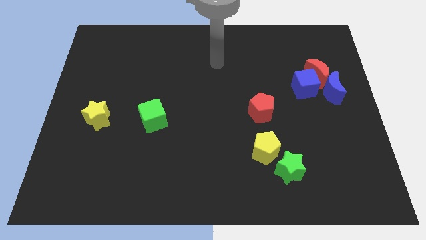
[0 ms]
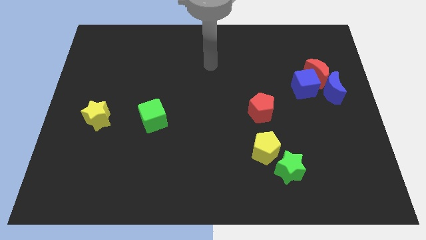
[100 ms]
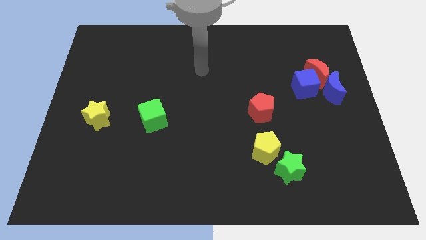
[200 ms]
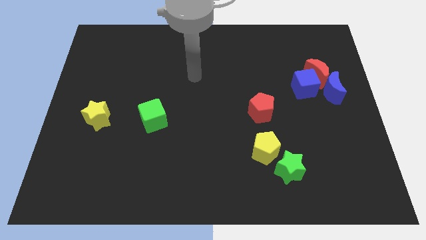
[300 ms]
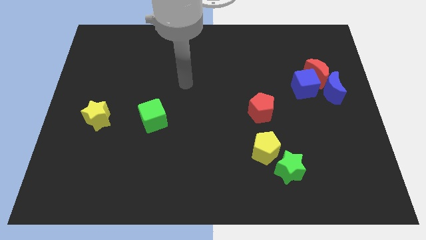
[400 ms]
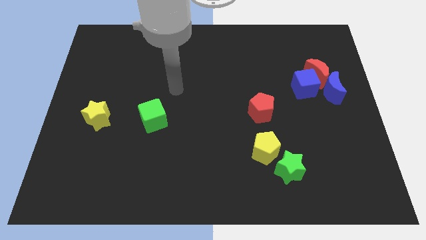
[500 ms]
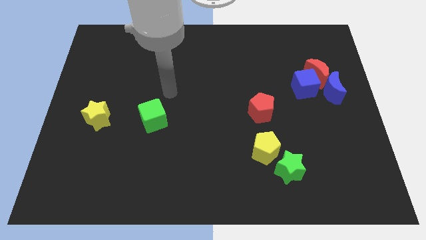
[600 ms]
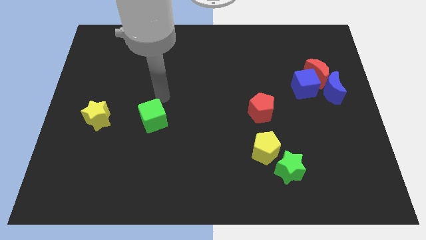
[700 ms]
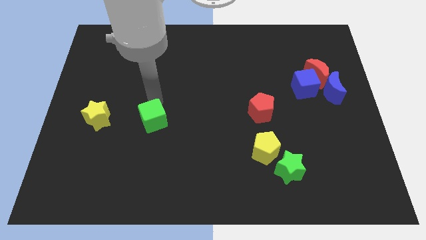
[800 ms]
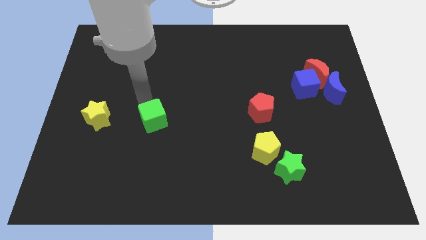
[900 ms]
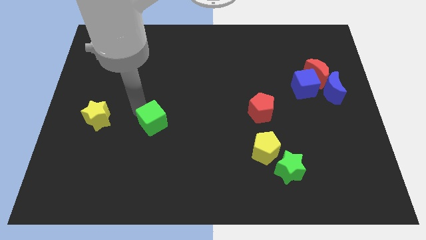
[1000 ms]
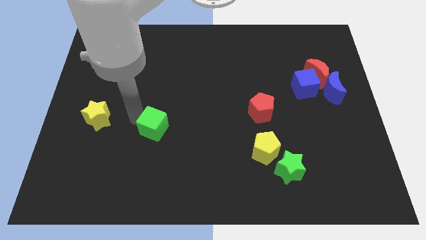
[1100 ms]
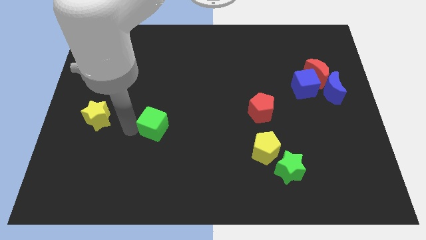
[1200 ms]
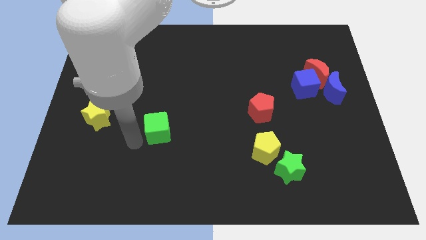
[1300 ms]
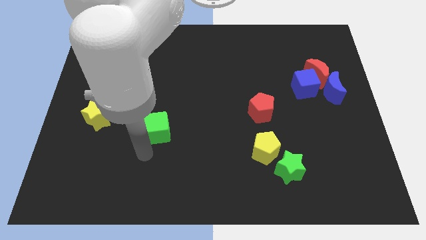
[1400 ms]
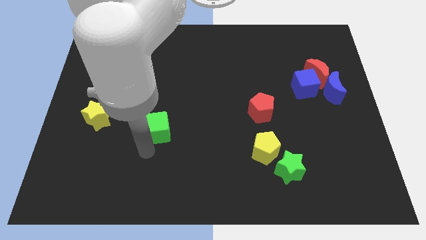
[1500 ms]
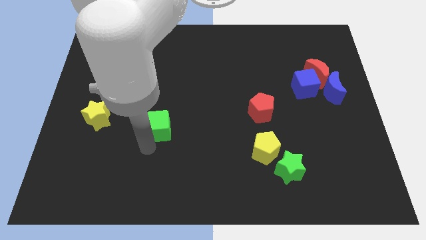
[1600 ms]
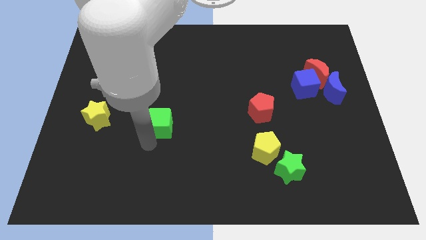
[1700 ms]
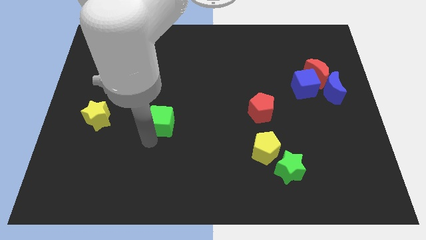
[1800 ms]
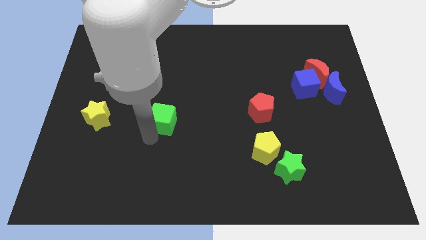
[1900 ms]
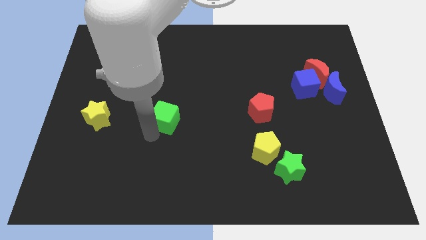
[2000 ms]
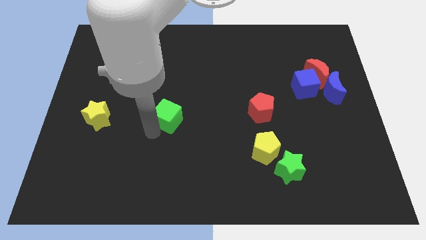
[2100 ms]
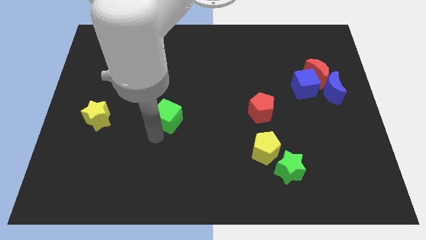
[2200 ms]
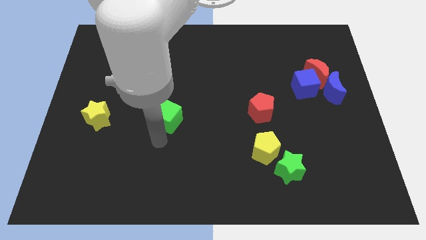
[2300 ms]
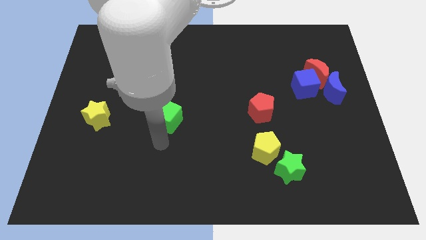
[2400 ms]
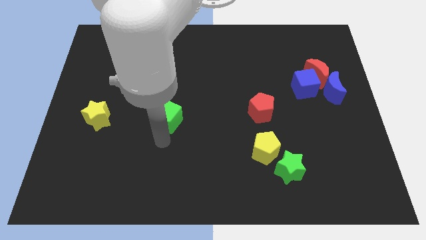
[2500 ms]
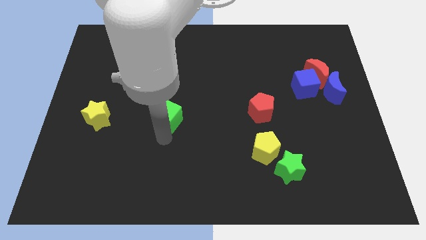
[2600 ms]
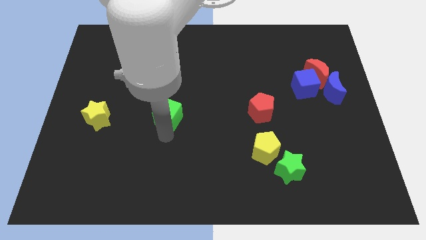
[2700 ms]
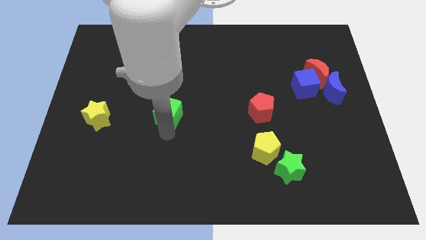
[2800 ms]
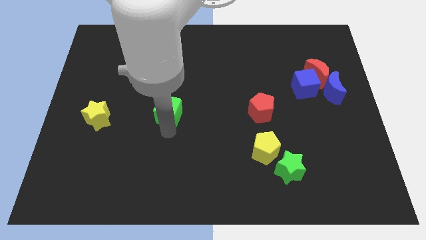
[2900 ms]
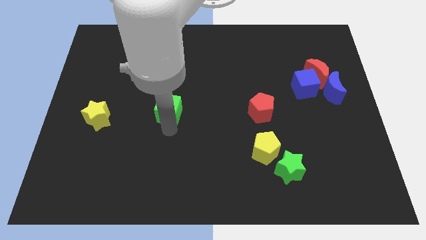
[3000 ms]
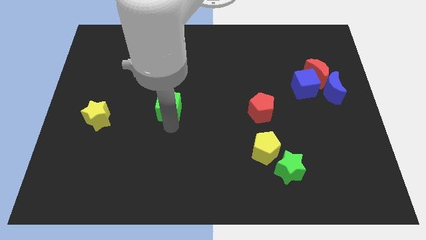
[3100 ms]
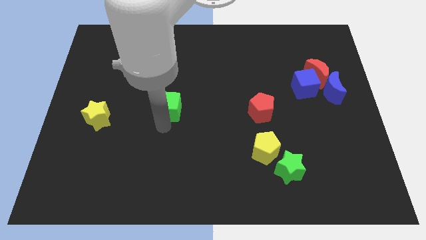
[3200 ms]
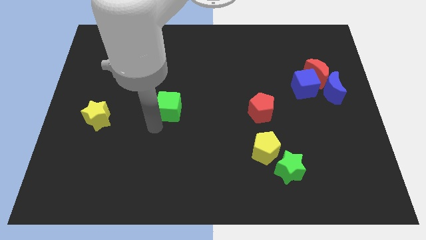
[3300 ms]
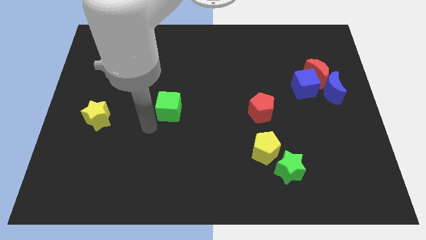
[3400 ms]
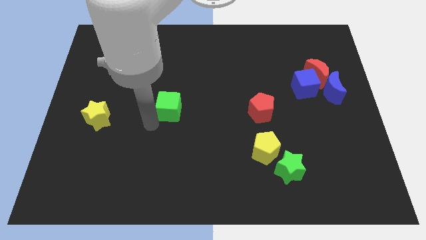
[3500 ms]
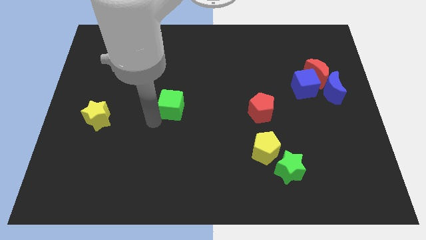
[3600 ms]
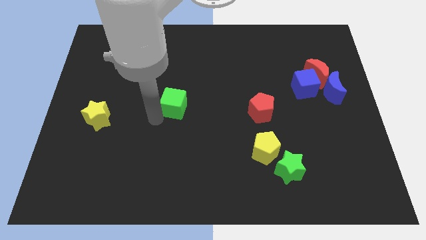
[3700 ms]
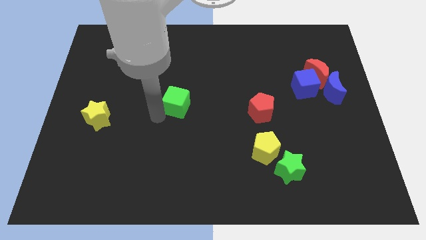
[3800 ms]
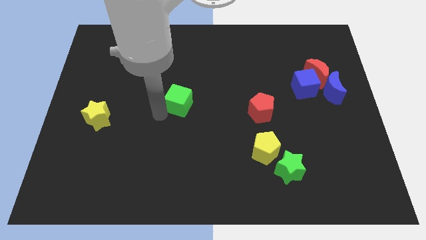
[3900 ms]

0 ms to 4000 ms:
push the green cube up and then right somewhat

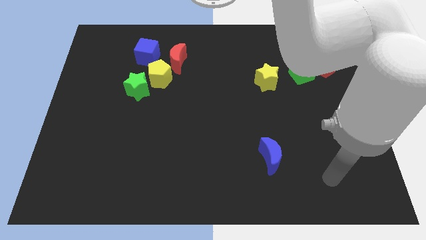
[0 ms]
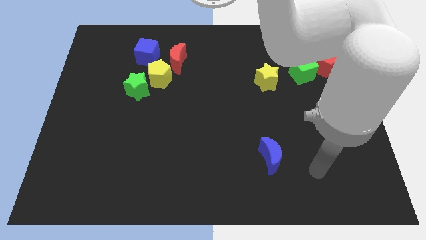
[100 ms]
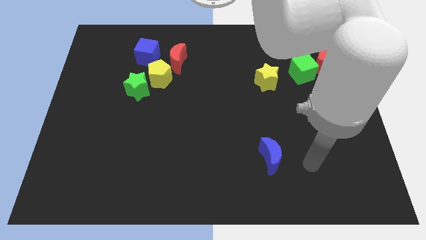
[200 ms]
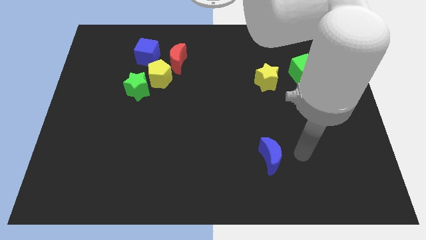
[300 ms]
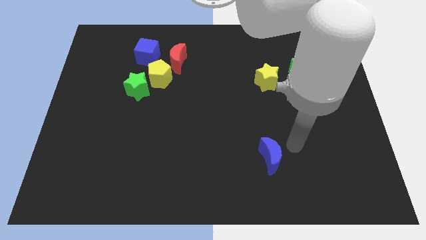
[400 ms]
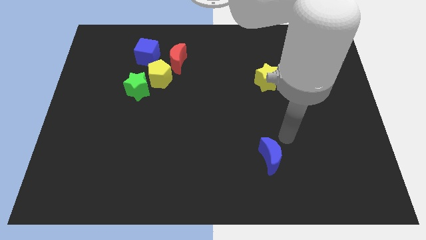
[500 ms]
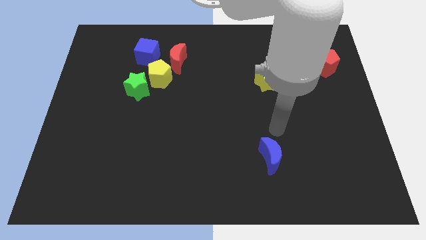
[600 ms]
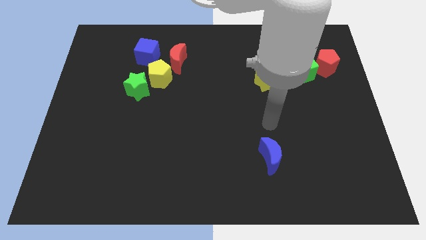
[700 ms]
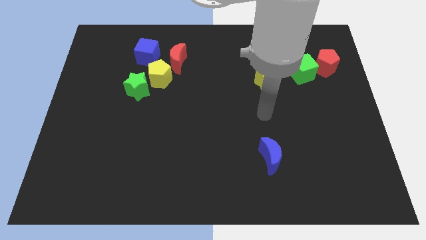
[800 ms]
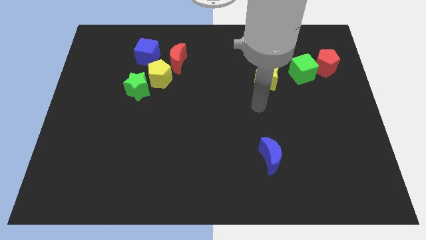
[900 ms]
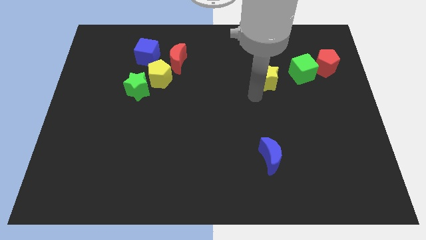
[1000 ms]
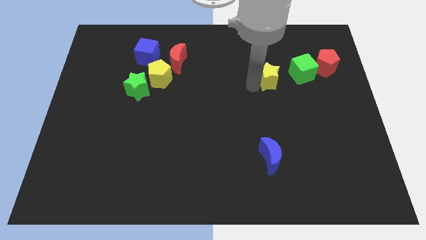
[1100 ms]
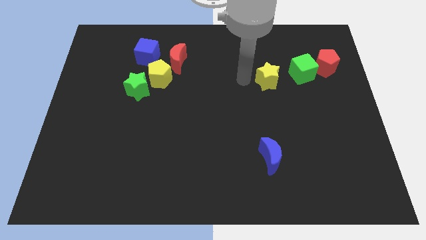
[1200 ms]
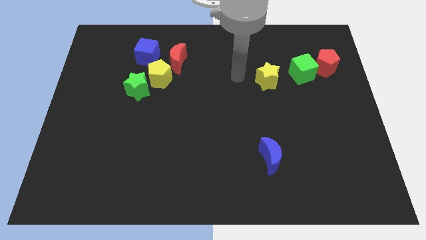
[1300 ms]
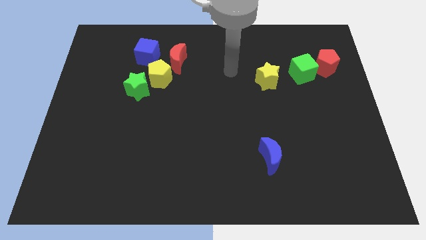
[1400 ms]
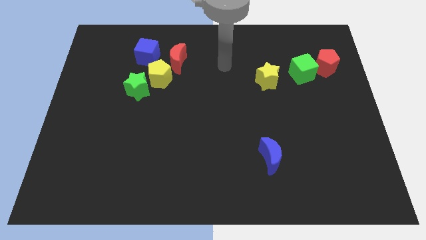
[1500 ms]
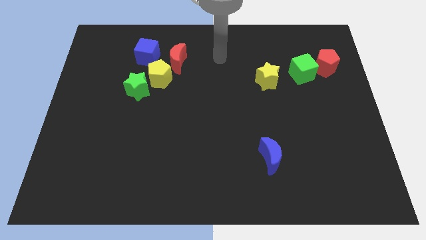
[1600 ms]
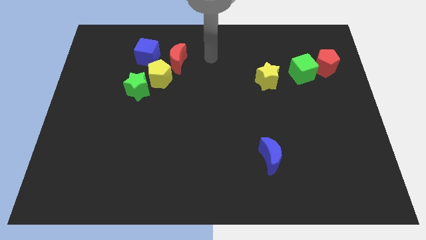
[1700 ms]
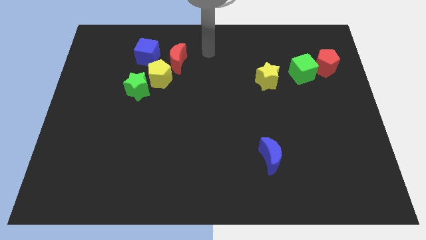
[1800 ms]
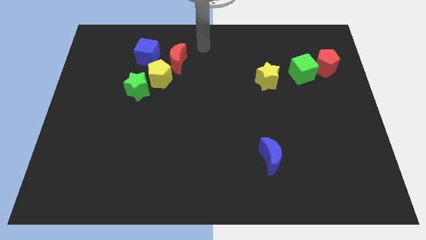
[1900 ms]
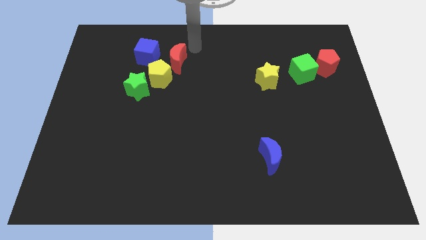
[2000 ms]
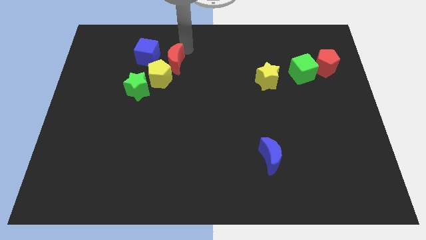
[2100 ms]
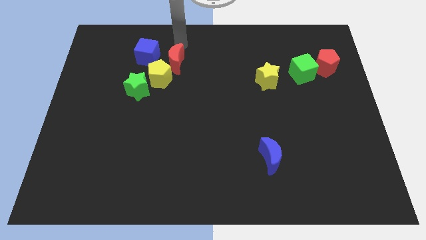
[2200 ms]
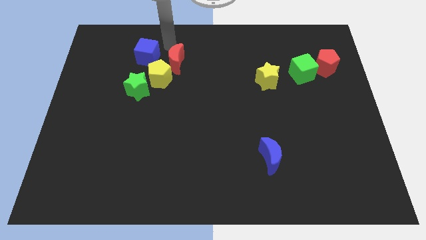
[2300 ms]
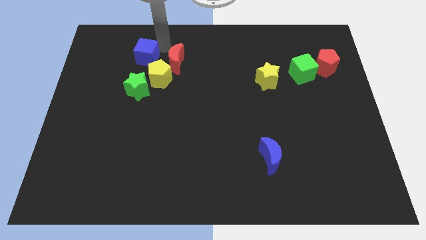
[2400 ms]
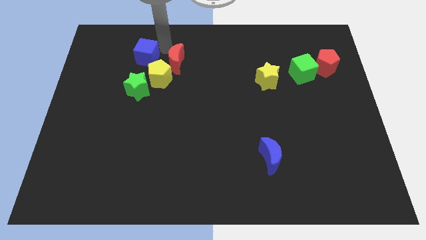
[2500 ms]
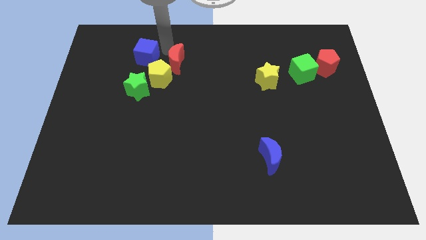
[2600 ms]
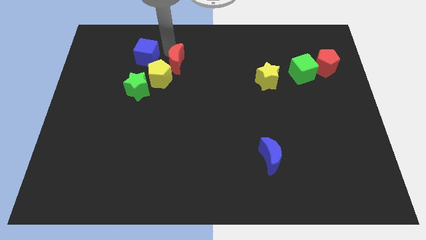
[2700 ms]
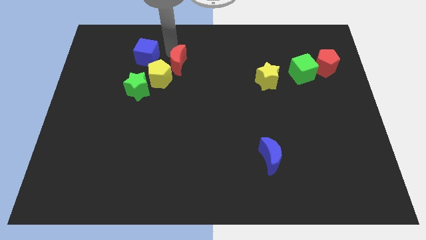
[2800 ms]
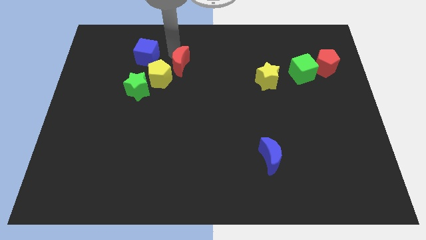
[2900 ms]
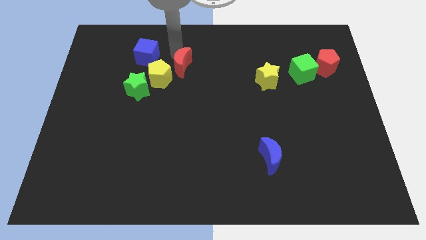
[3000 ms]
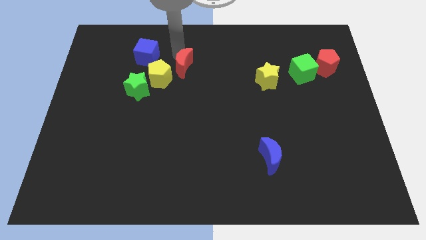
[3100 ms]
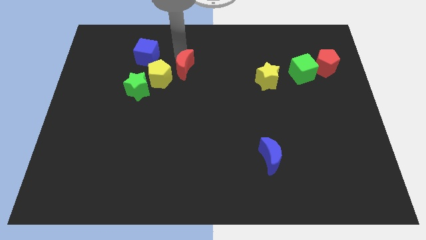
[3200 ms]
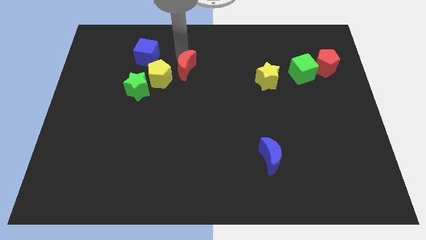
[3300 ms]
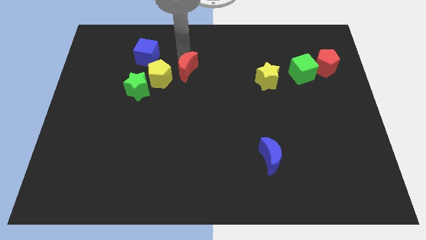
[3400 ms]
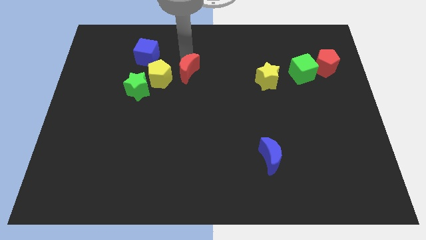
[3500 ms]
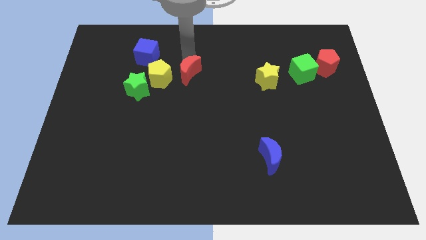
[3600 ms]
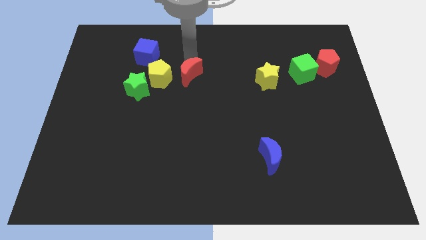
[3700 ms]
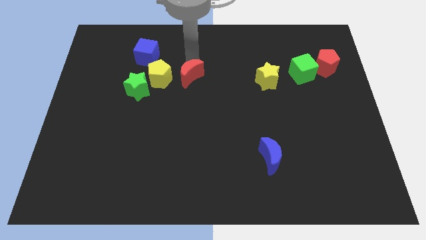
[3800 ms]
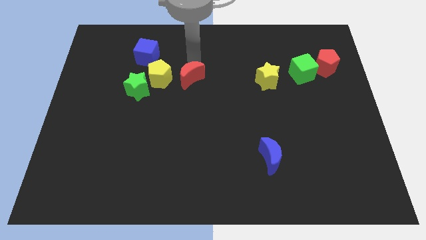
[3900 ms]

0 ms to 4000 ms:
slide the red moon diagonally downwards and to the right a bit

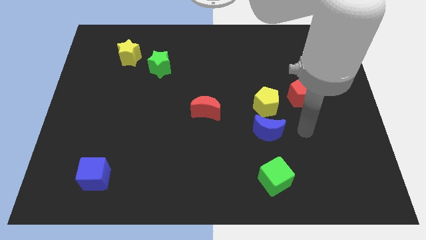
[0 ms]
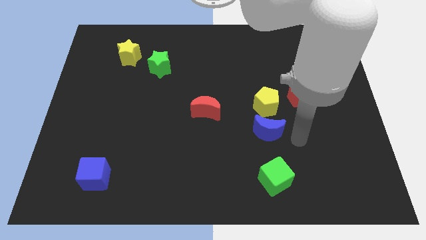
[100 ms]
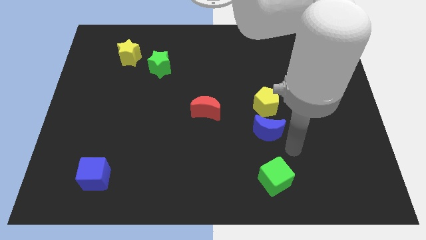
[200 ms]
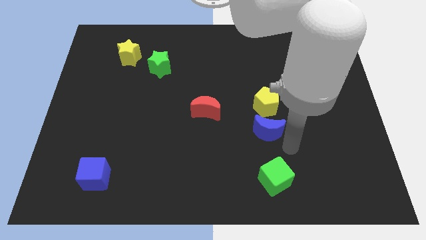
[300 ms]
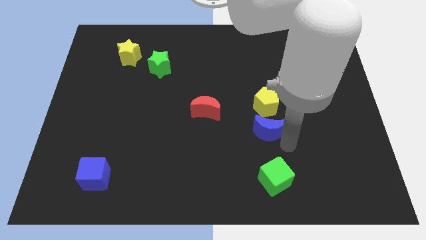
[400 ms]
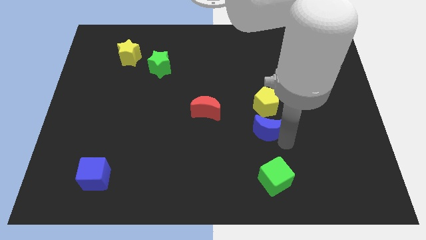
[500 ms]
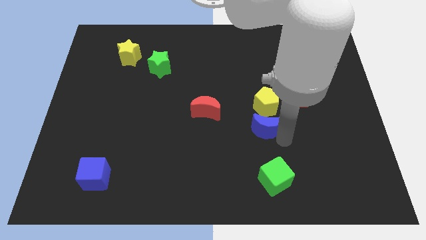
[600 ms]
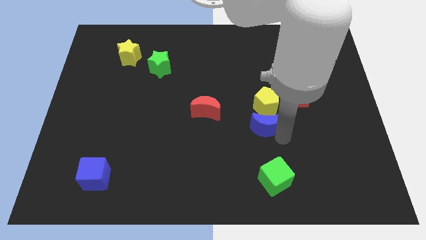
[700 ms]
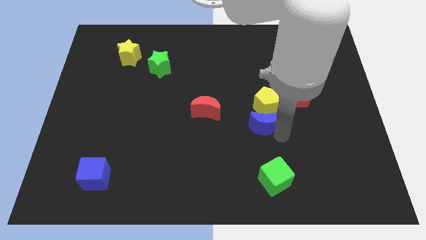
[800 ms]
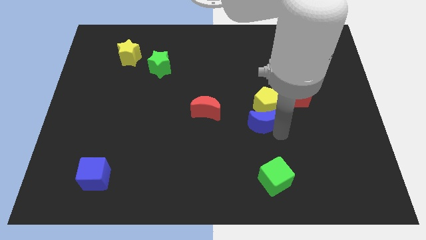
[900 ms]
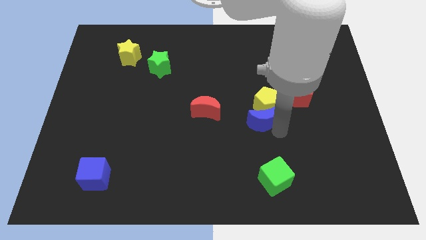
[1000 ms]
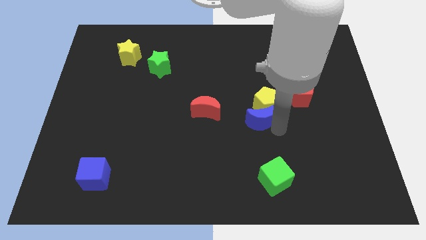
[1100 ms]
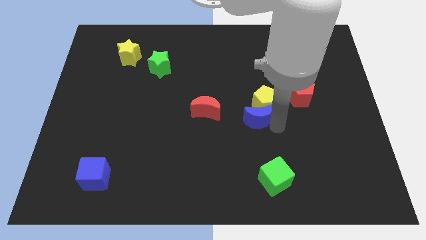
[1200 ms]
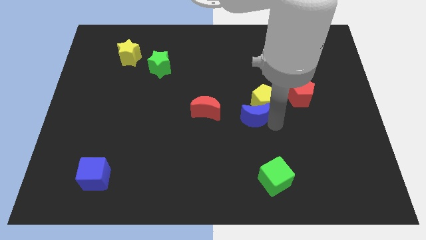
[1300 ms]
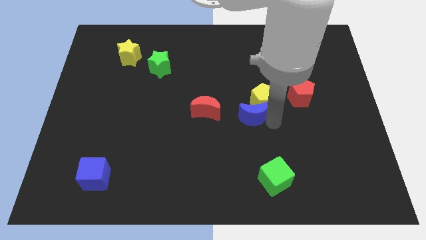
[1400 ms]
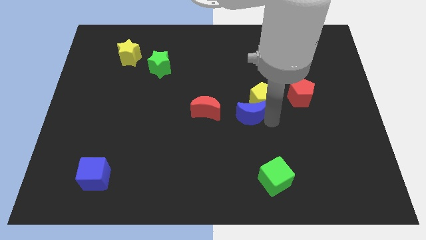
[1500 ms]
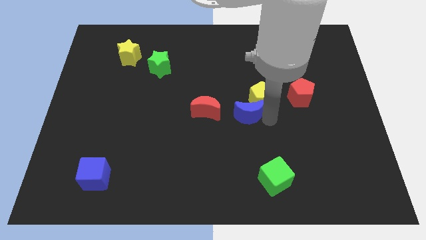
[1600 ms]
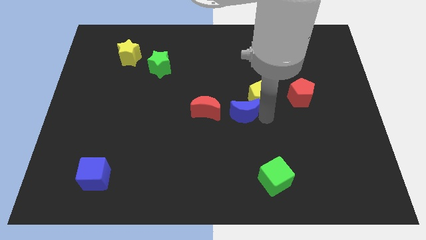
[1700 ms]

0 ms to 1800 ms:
move the blue moon a little diagonally upwards and left
